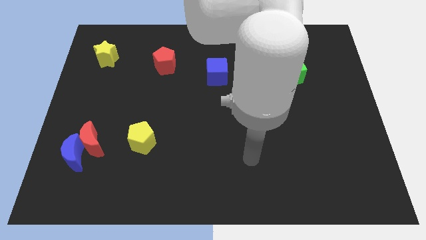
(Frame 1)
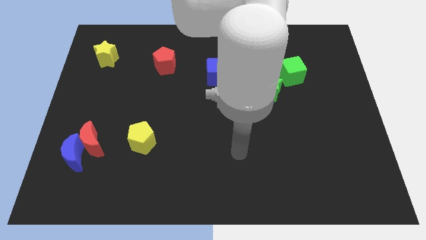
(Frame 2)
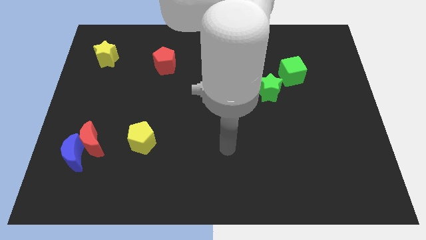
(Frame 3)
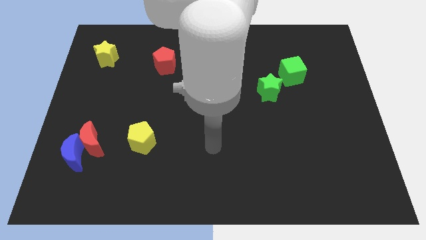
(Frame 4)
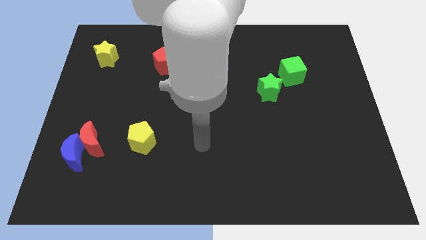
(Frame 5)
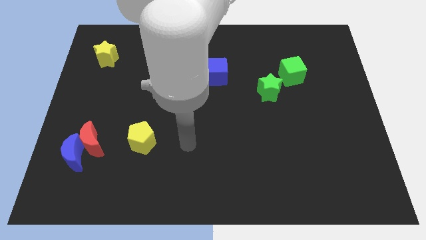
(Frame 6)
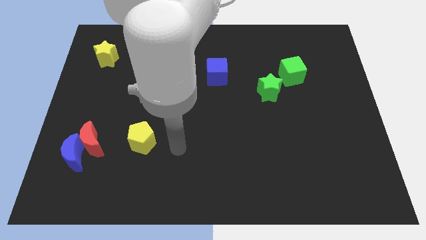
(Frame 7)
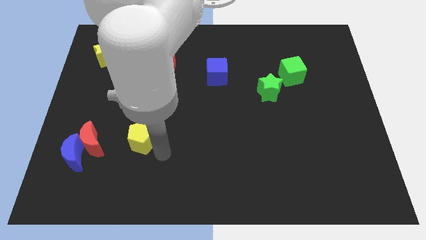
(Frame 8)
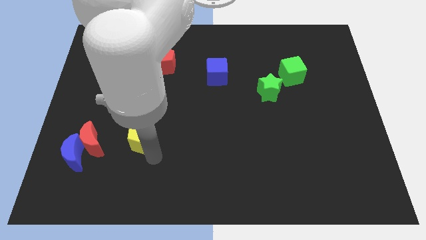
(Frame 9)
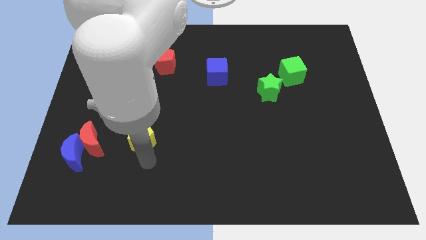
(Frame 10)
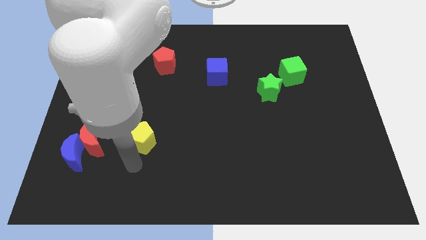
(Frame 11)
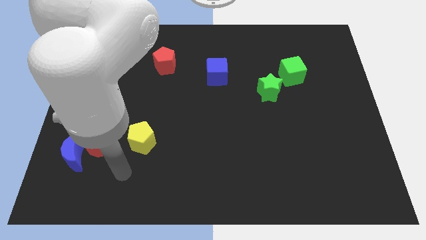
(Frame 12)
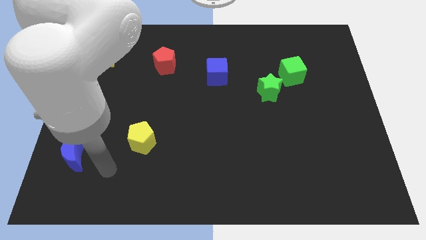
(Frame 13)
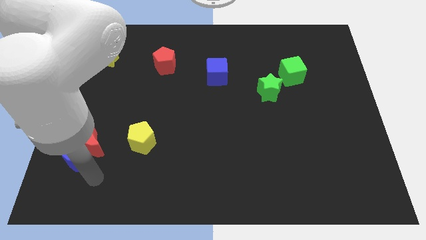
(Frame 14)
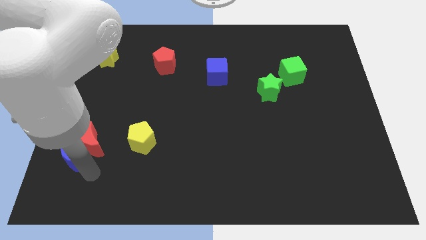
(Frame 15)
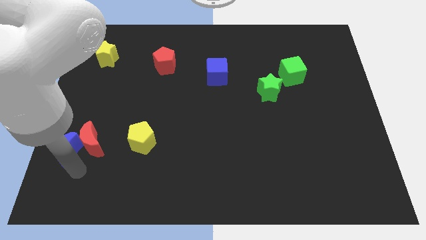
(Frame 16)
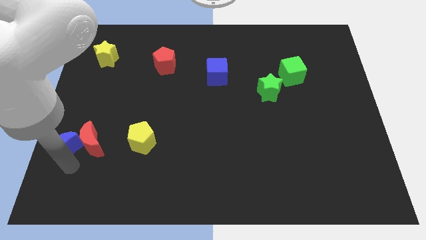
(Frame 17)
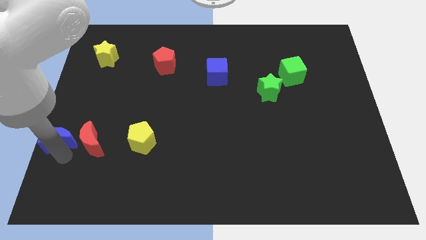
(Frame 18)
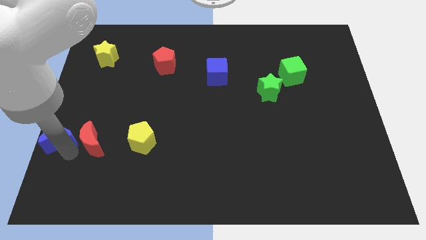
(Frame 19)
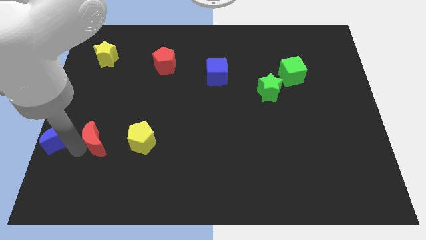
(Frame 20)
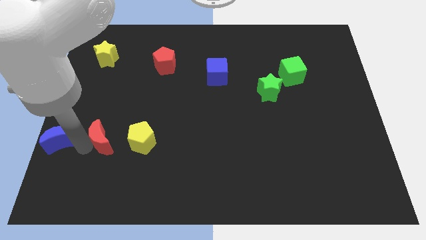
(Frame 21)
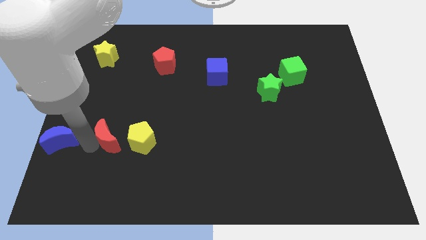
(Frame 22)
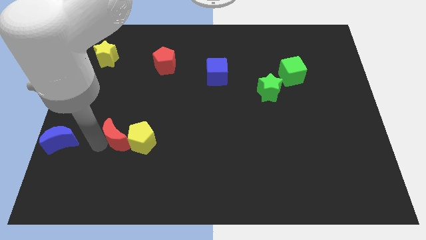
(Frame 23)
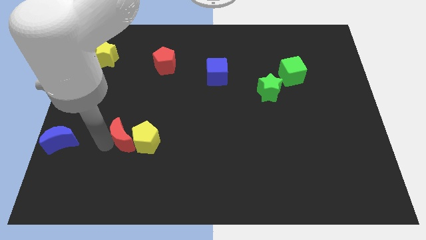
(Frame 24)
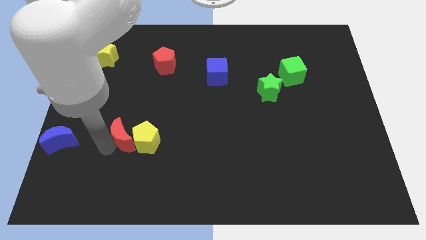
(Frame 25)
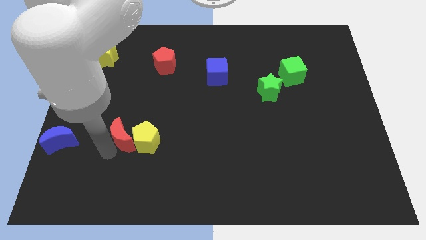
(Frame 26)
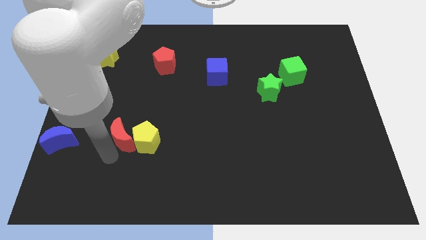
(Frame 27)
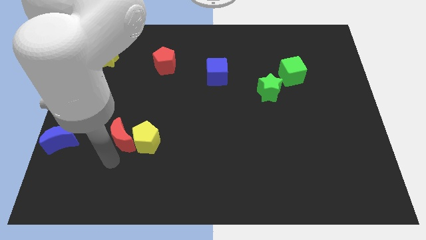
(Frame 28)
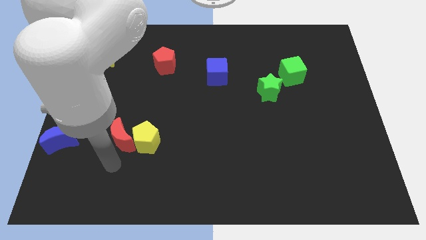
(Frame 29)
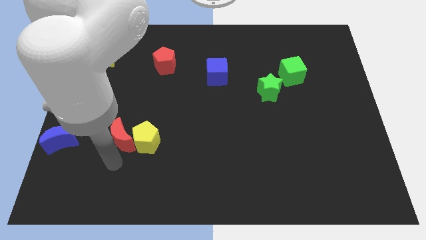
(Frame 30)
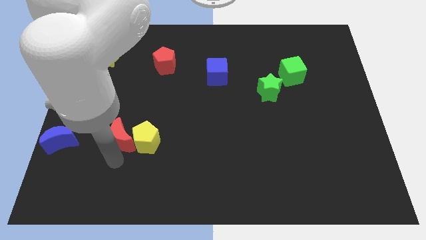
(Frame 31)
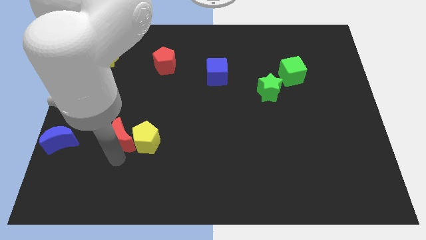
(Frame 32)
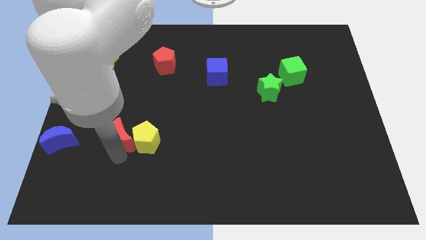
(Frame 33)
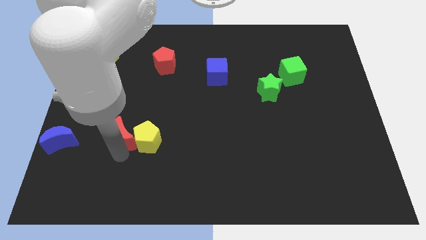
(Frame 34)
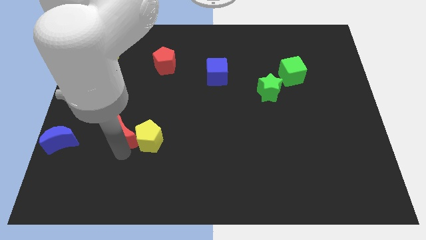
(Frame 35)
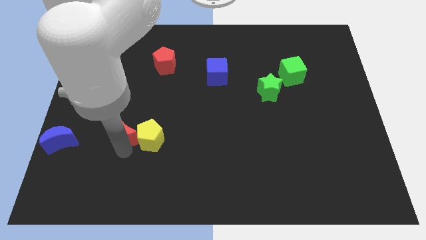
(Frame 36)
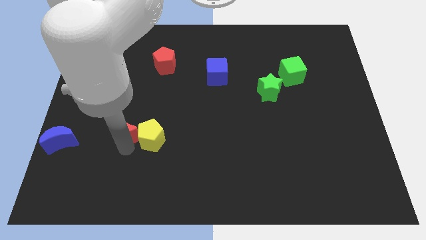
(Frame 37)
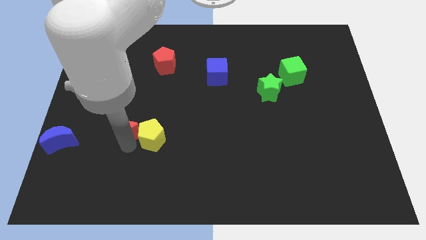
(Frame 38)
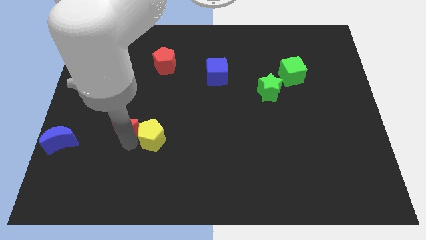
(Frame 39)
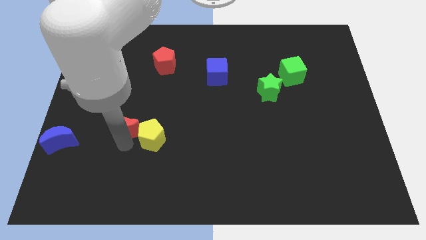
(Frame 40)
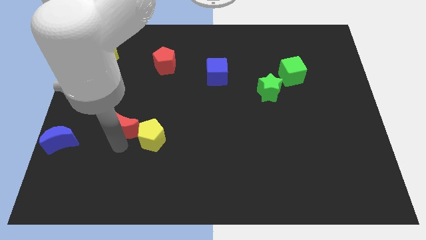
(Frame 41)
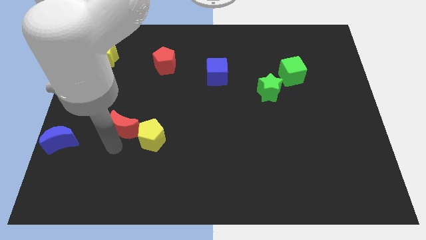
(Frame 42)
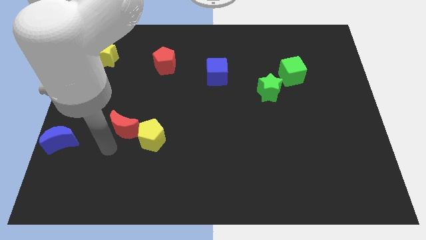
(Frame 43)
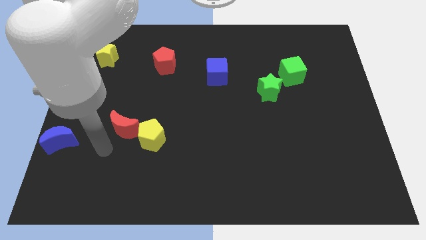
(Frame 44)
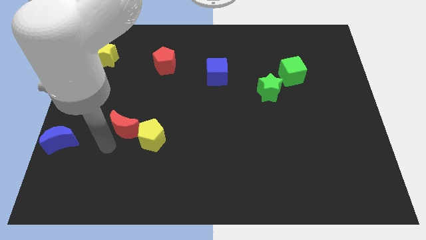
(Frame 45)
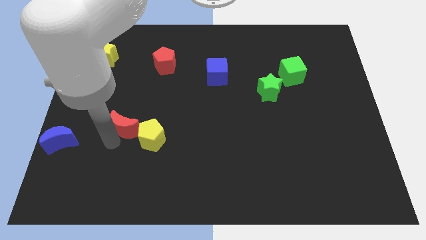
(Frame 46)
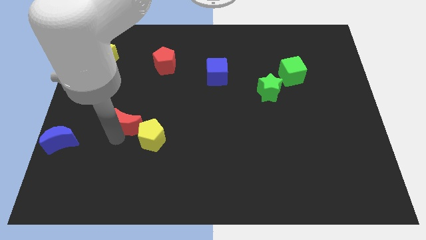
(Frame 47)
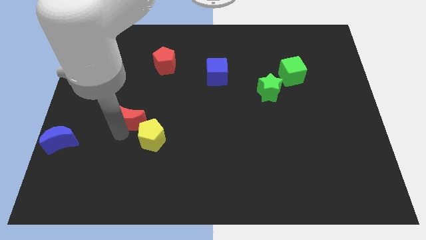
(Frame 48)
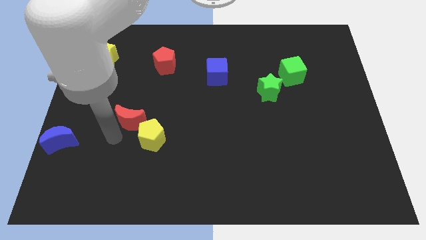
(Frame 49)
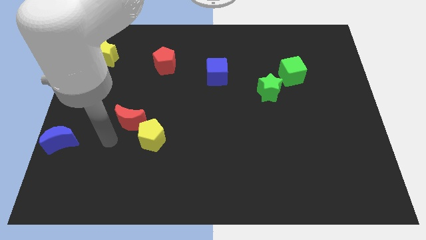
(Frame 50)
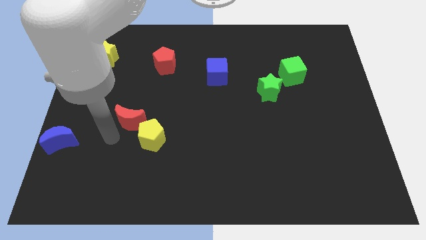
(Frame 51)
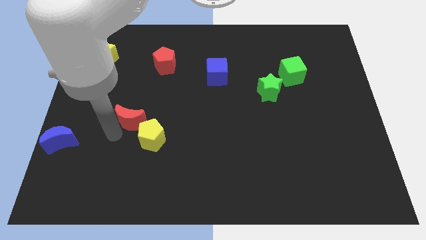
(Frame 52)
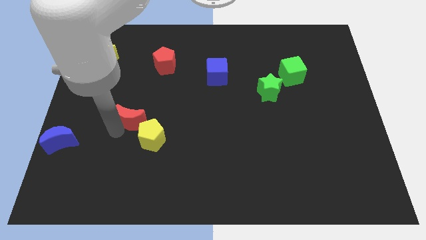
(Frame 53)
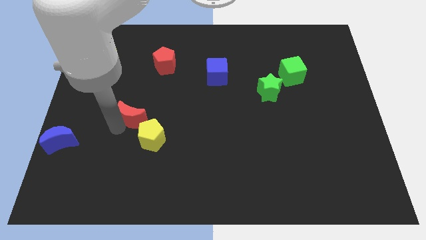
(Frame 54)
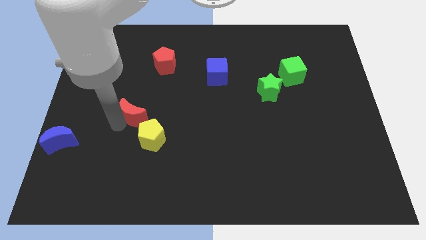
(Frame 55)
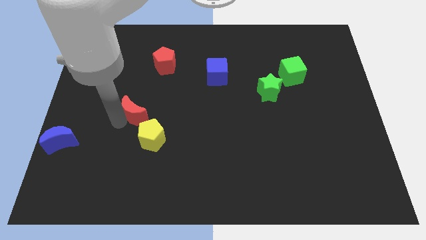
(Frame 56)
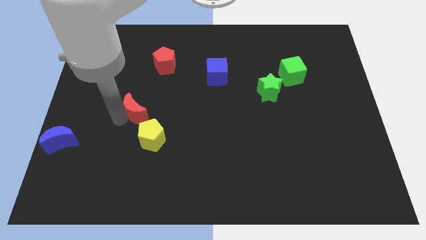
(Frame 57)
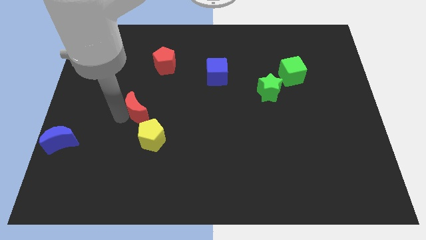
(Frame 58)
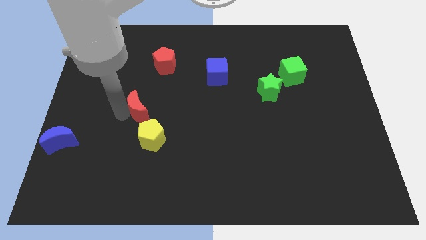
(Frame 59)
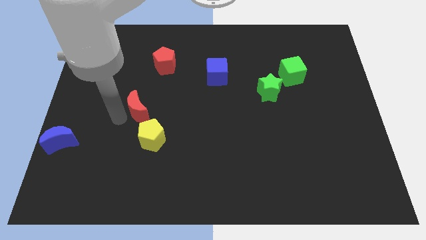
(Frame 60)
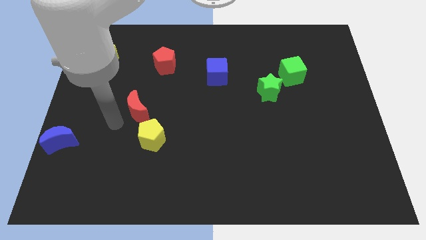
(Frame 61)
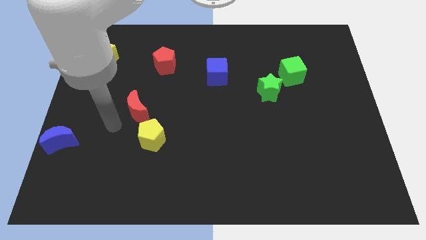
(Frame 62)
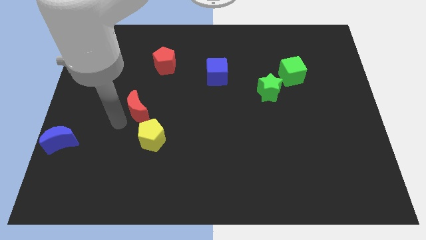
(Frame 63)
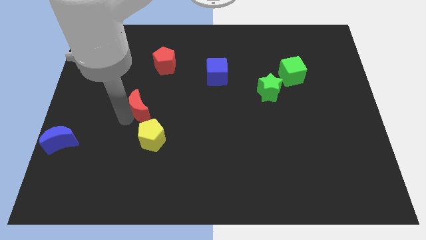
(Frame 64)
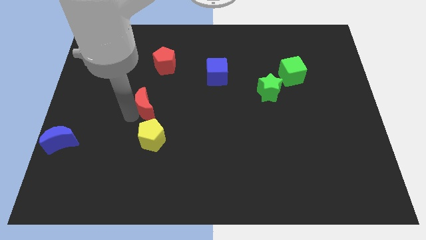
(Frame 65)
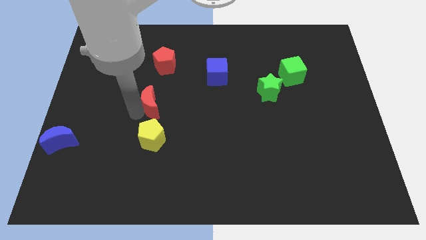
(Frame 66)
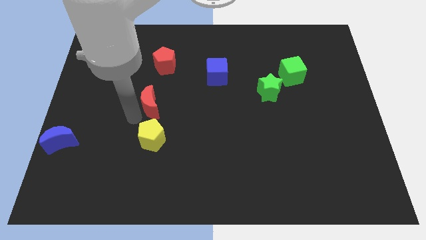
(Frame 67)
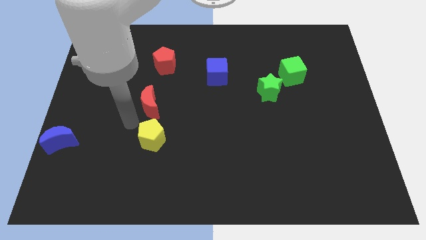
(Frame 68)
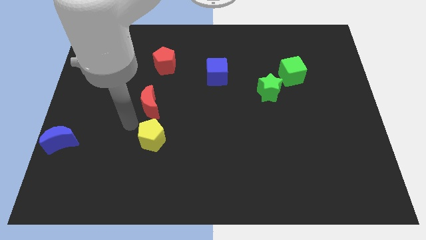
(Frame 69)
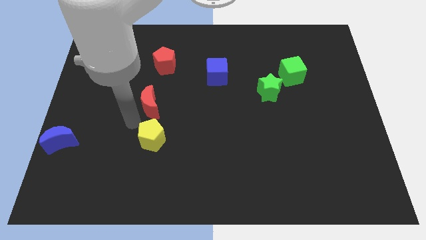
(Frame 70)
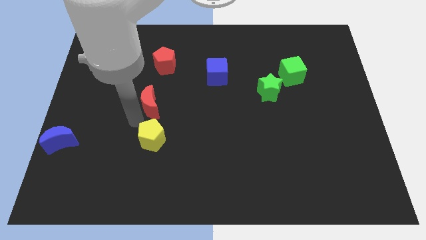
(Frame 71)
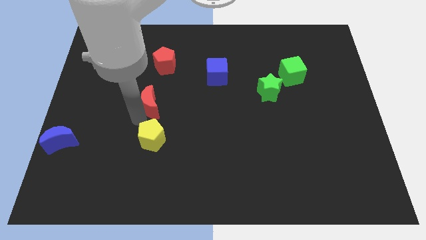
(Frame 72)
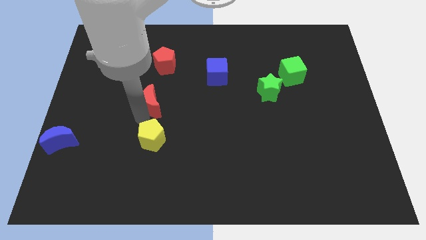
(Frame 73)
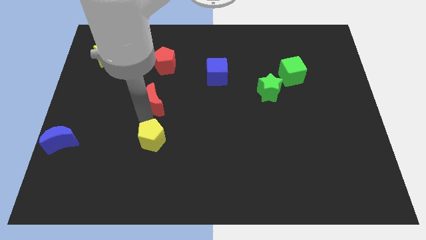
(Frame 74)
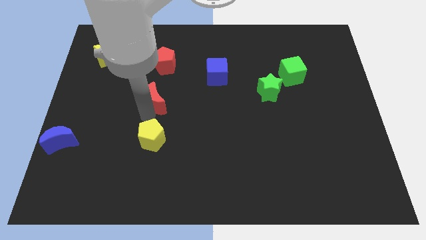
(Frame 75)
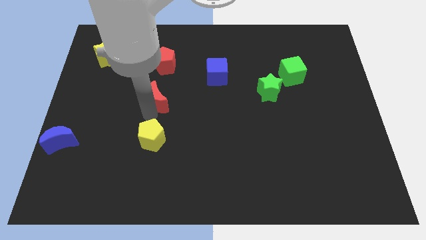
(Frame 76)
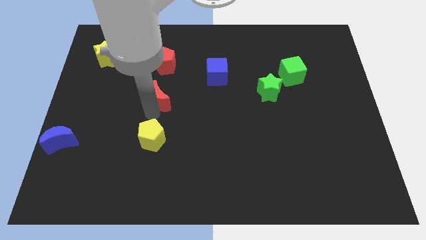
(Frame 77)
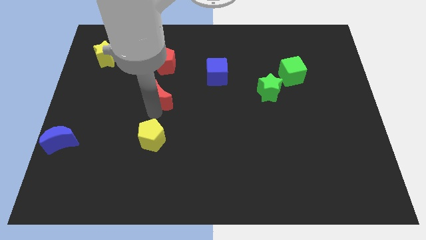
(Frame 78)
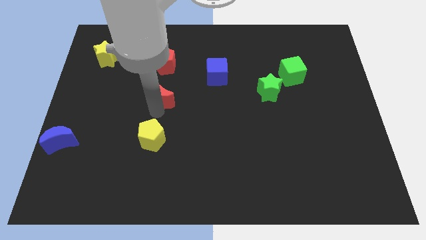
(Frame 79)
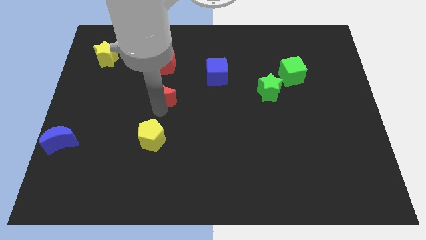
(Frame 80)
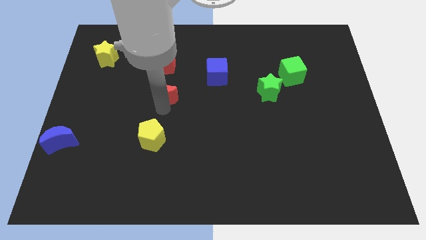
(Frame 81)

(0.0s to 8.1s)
push the red moon up and then to the right
